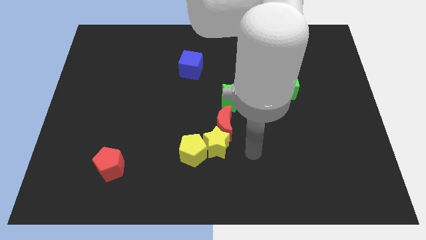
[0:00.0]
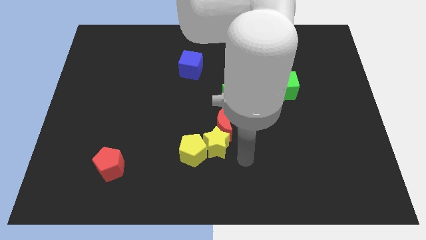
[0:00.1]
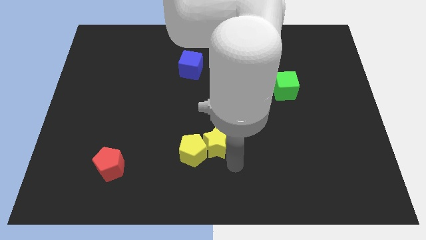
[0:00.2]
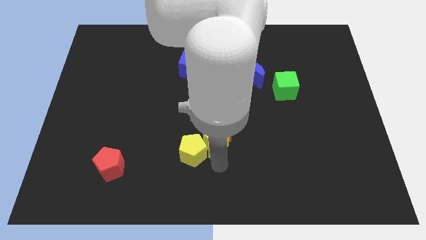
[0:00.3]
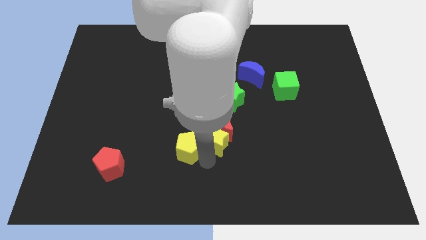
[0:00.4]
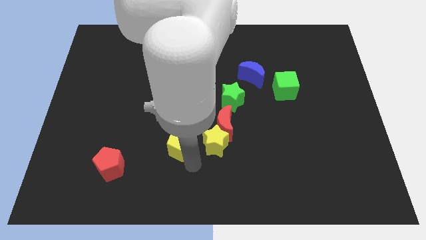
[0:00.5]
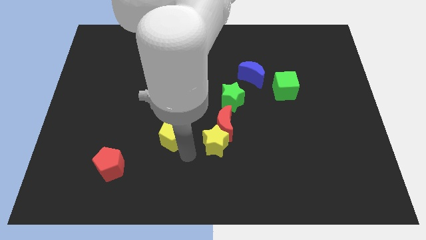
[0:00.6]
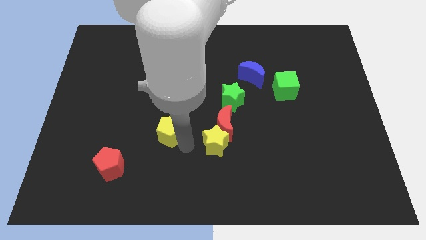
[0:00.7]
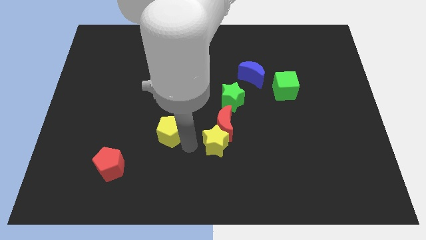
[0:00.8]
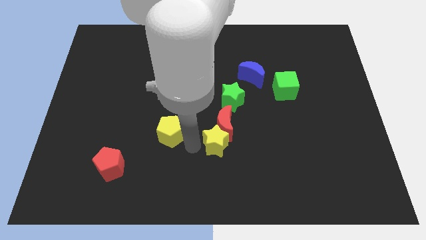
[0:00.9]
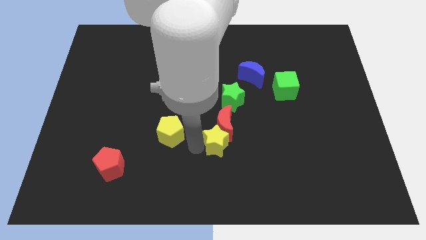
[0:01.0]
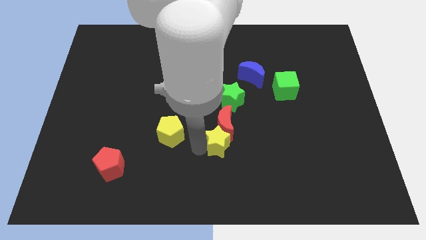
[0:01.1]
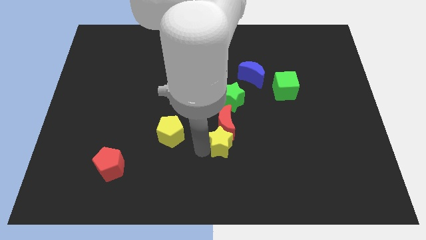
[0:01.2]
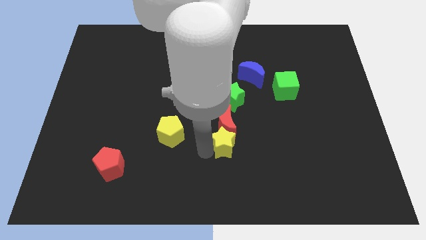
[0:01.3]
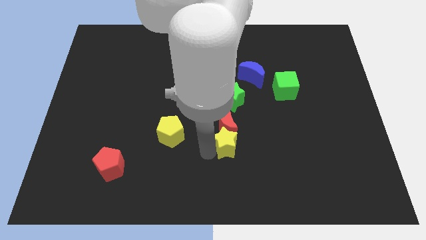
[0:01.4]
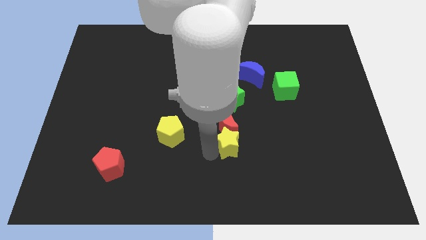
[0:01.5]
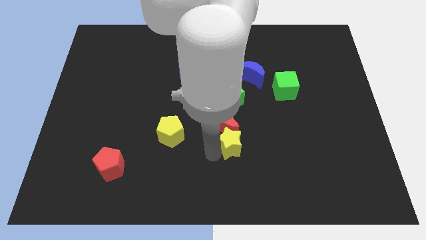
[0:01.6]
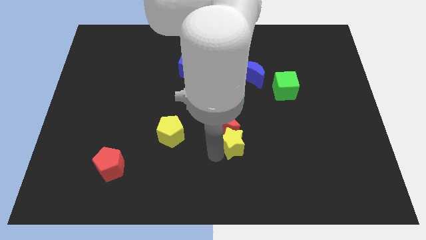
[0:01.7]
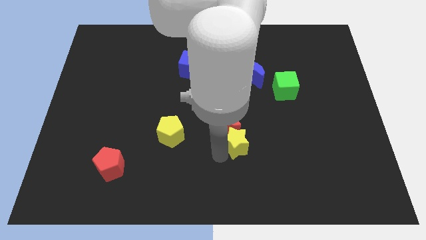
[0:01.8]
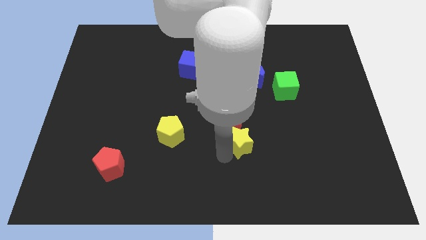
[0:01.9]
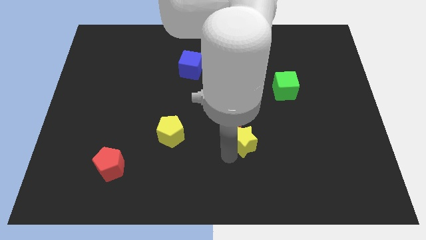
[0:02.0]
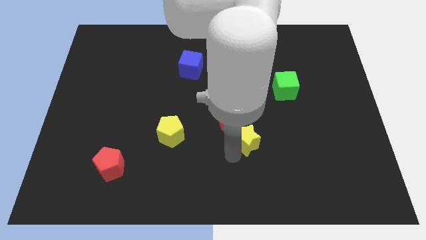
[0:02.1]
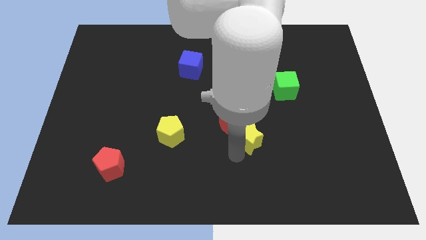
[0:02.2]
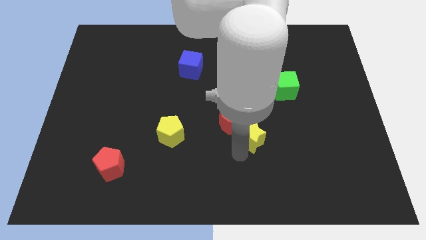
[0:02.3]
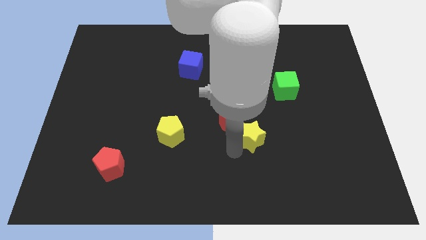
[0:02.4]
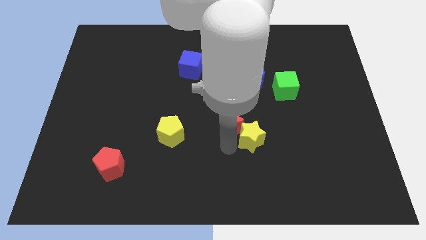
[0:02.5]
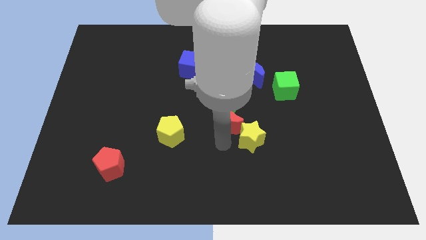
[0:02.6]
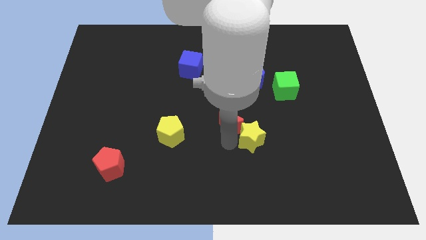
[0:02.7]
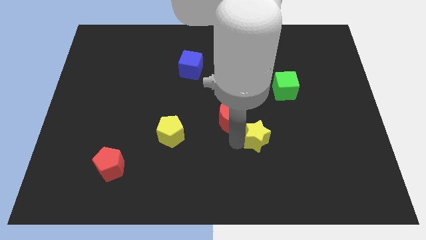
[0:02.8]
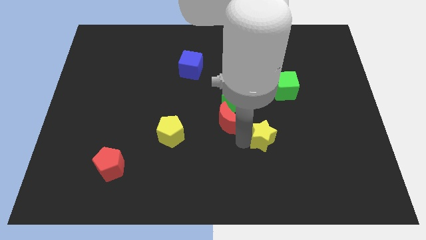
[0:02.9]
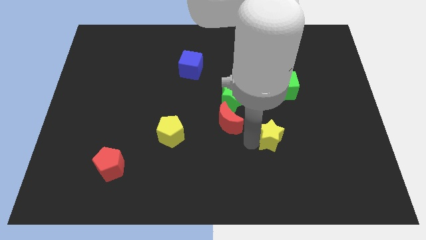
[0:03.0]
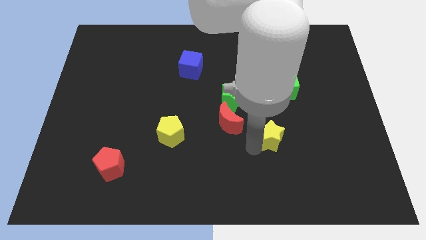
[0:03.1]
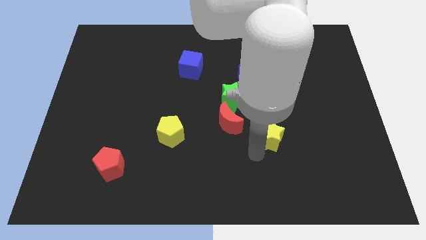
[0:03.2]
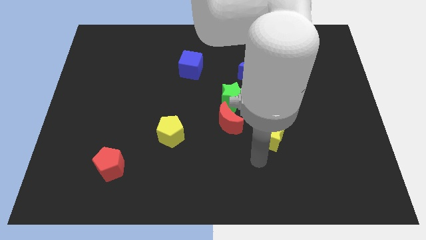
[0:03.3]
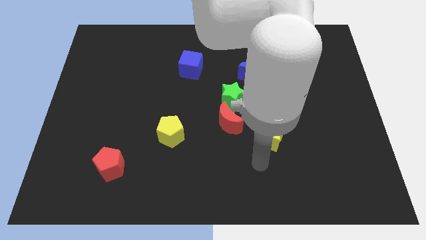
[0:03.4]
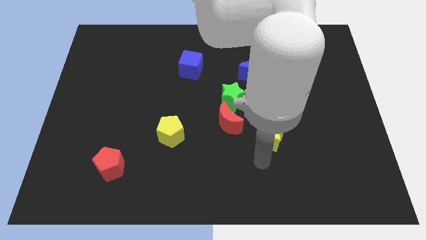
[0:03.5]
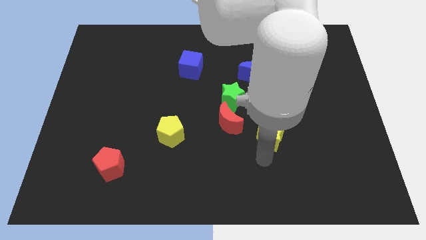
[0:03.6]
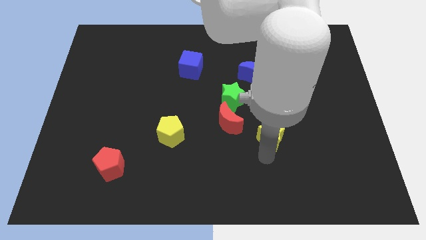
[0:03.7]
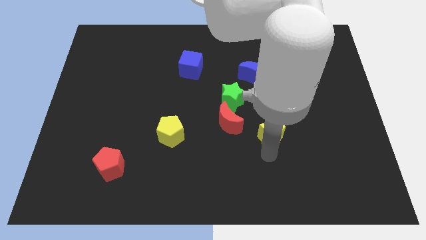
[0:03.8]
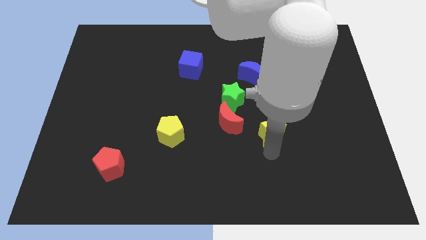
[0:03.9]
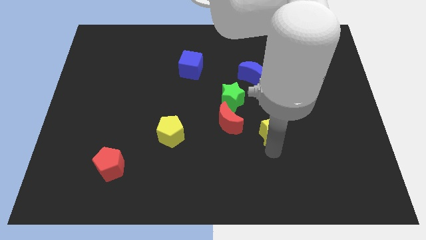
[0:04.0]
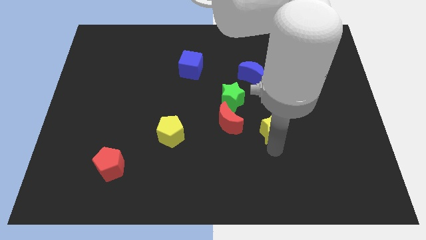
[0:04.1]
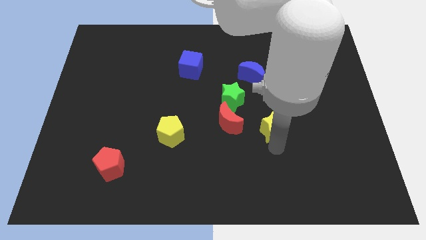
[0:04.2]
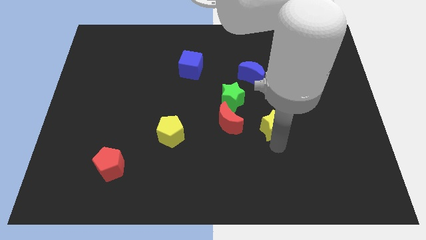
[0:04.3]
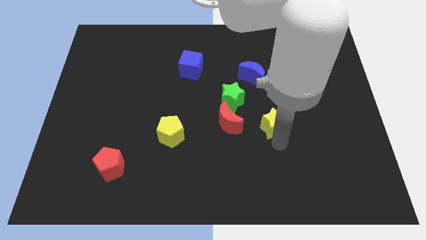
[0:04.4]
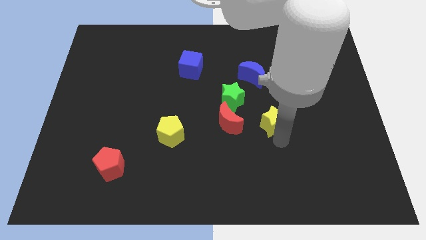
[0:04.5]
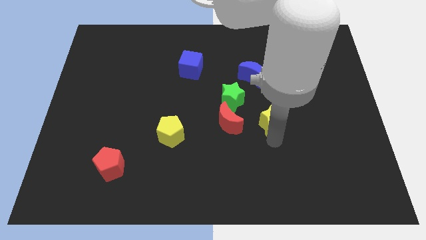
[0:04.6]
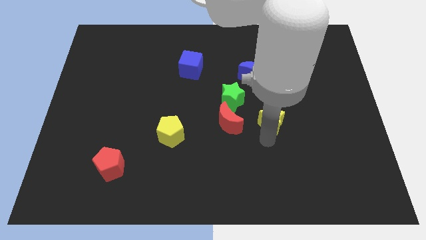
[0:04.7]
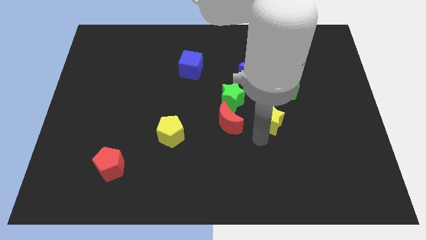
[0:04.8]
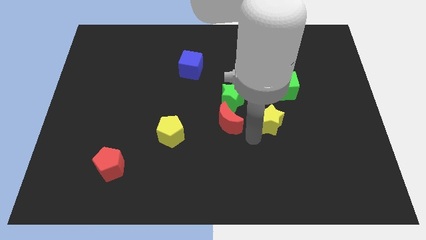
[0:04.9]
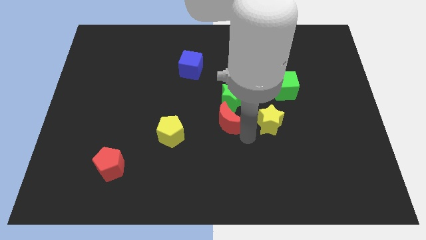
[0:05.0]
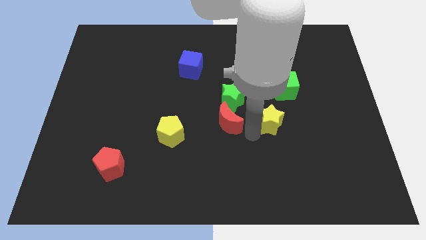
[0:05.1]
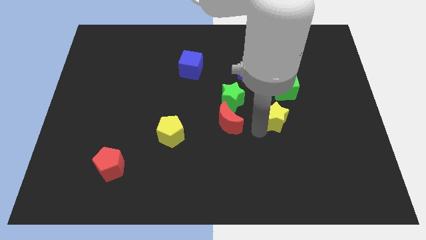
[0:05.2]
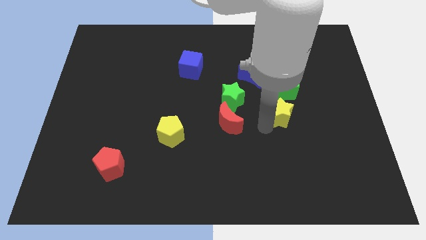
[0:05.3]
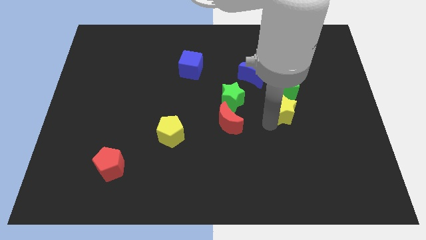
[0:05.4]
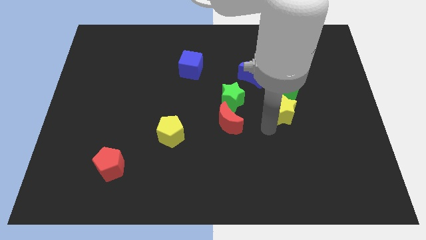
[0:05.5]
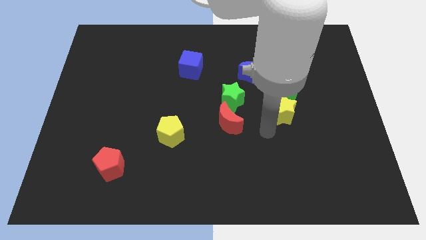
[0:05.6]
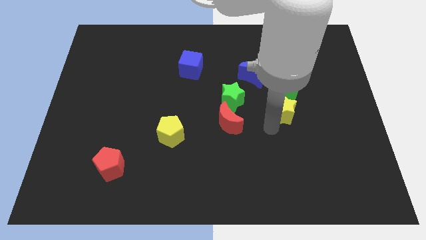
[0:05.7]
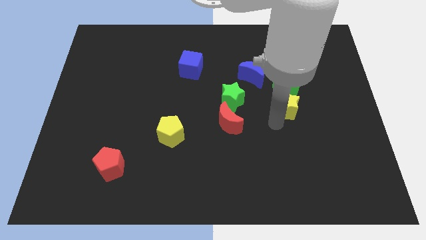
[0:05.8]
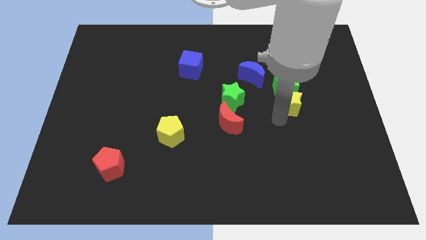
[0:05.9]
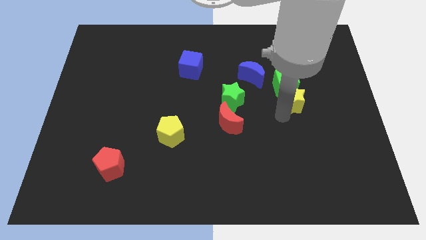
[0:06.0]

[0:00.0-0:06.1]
move the yellow star up and right diagonally

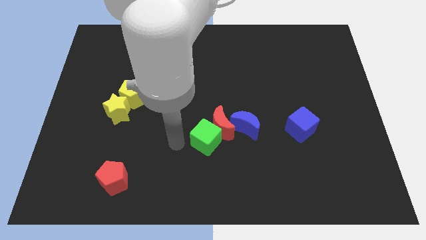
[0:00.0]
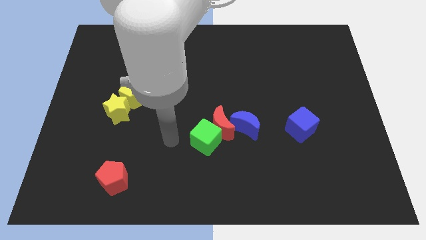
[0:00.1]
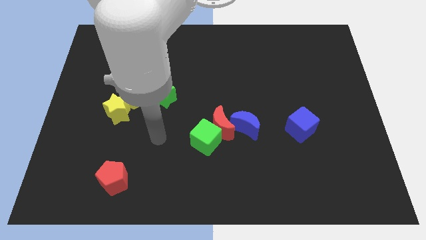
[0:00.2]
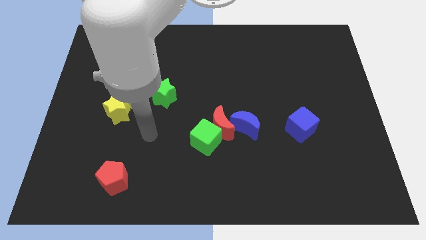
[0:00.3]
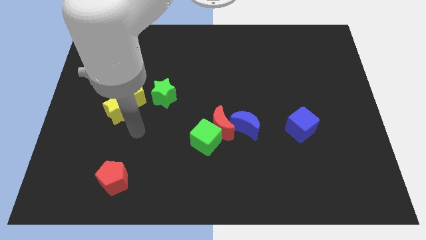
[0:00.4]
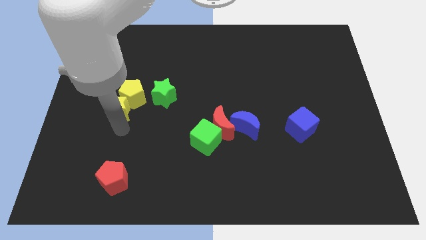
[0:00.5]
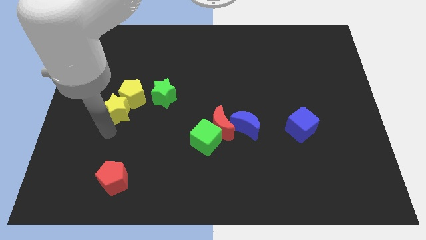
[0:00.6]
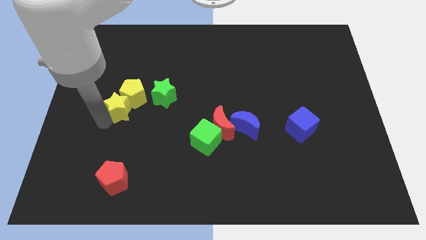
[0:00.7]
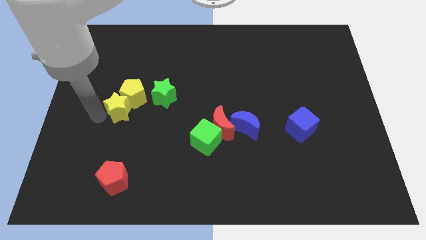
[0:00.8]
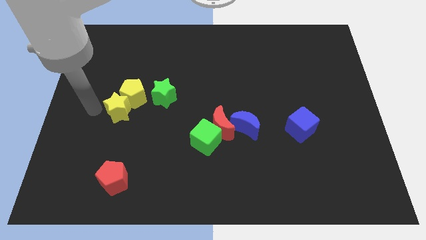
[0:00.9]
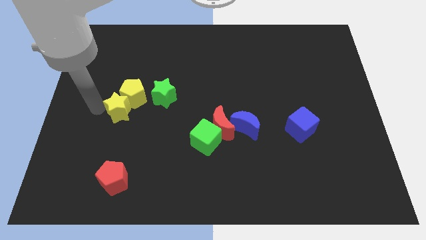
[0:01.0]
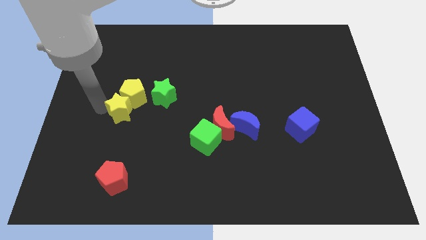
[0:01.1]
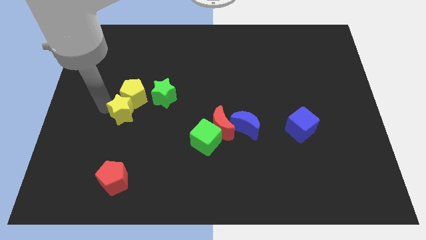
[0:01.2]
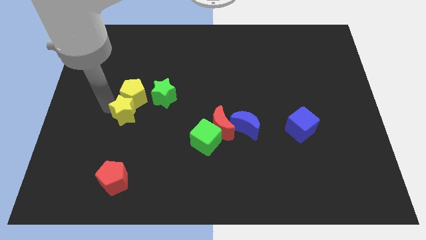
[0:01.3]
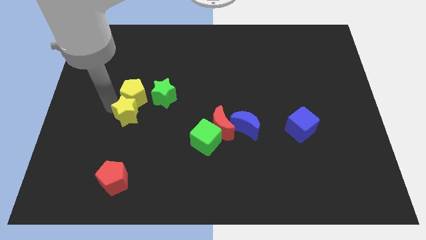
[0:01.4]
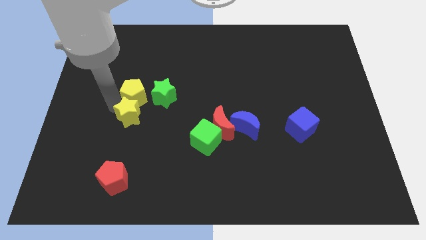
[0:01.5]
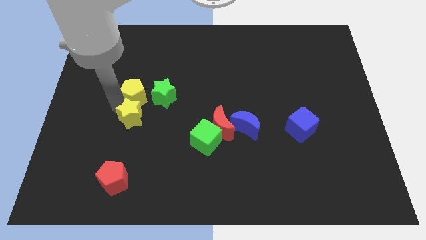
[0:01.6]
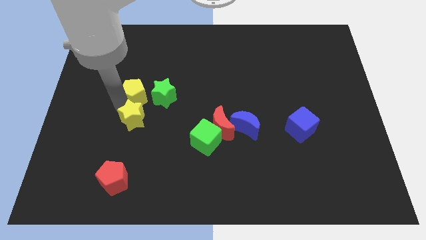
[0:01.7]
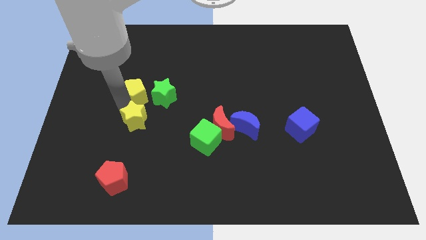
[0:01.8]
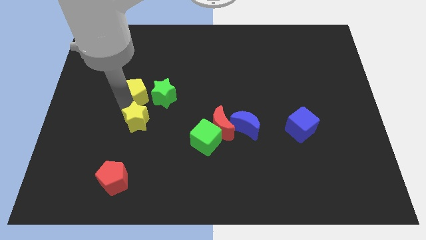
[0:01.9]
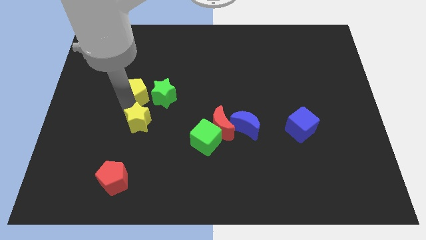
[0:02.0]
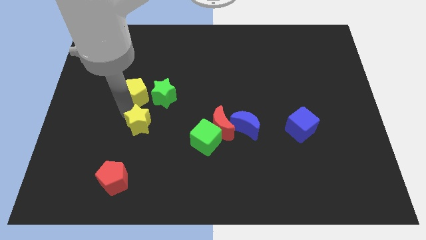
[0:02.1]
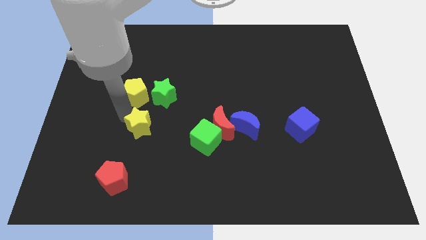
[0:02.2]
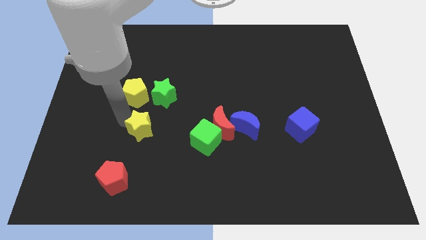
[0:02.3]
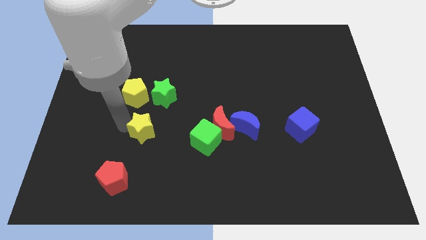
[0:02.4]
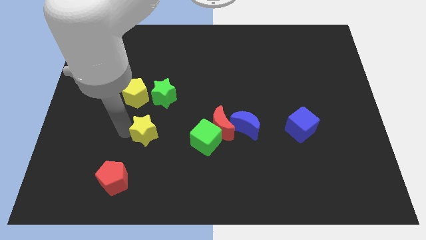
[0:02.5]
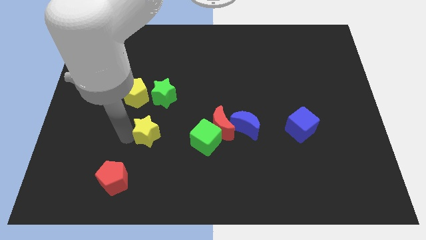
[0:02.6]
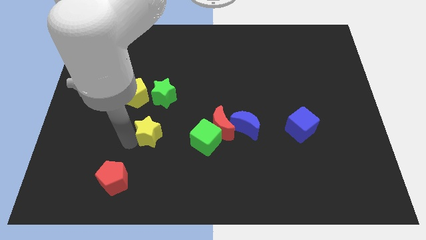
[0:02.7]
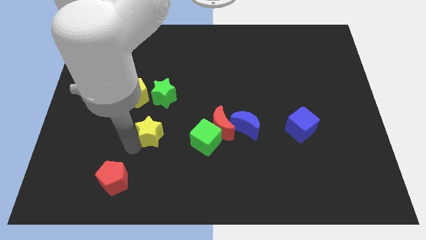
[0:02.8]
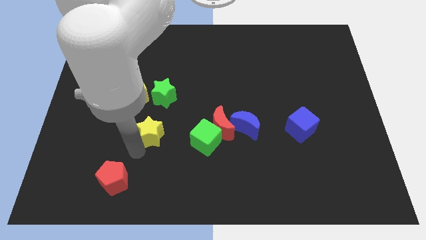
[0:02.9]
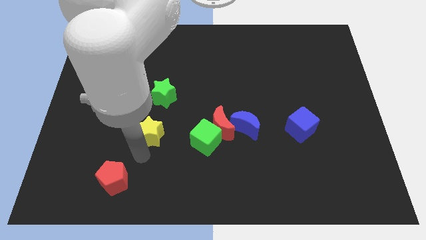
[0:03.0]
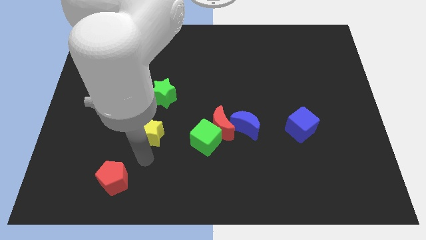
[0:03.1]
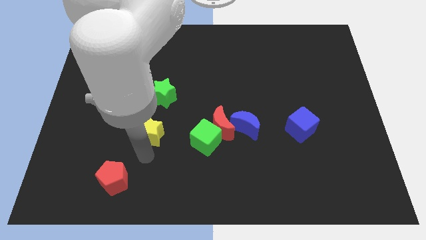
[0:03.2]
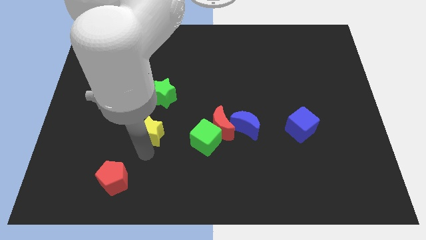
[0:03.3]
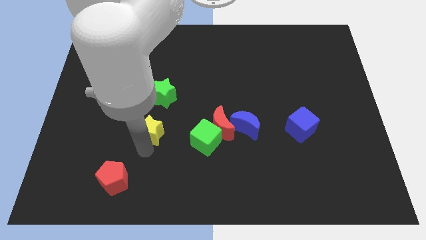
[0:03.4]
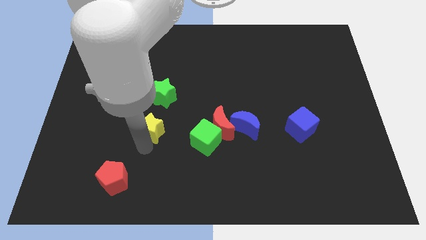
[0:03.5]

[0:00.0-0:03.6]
push the yellow star right somewhat
